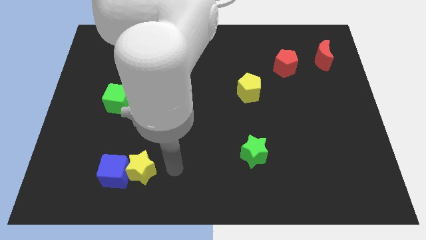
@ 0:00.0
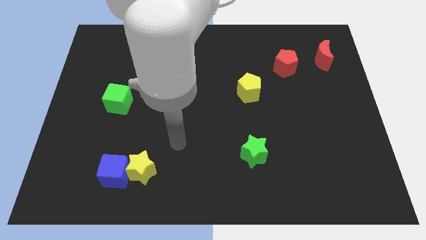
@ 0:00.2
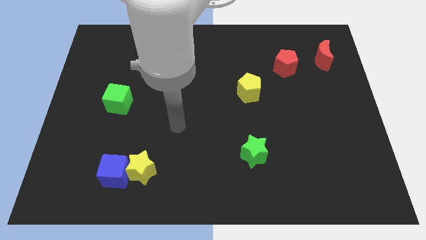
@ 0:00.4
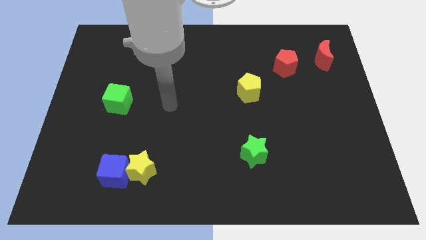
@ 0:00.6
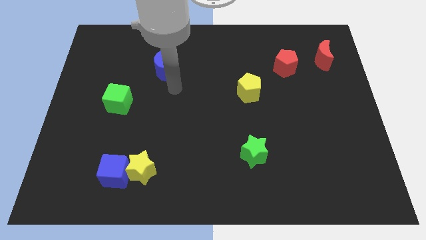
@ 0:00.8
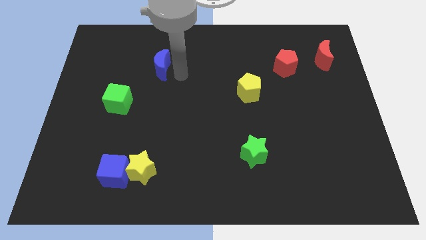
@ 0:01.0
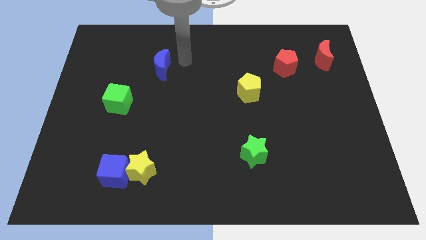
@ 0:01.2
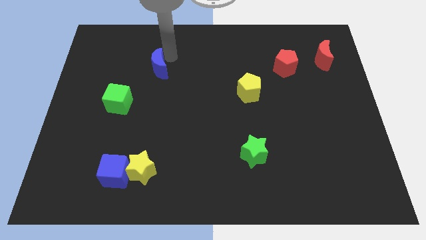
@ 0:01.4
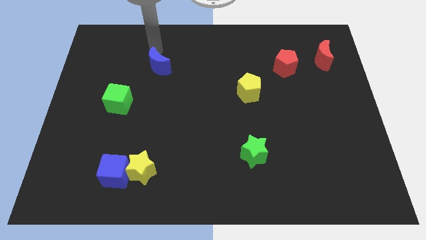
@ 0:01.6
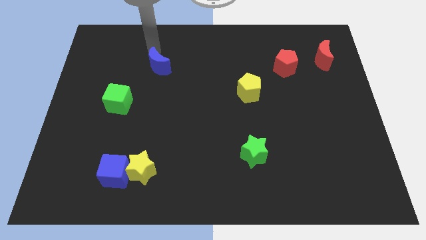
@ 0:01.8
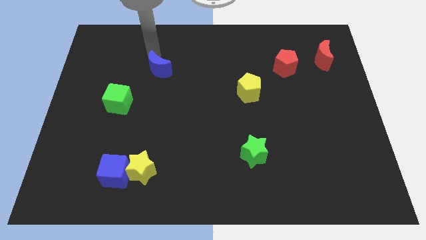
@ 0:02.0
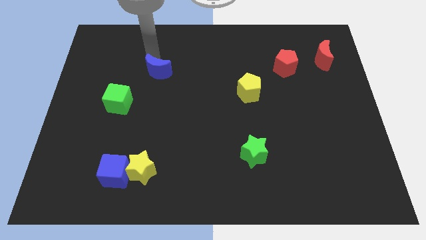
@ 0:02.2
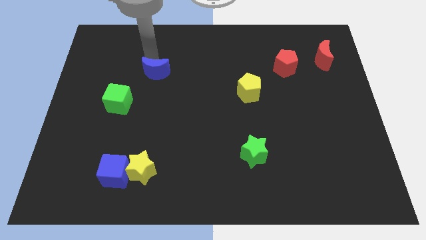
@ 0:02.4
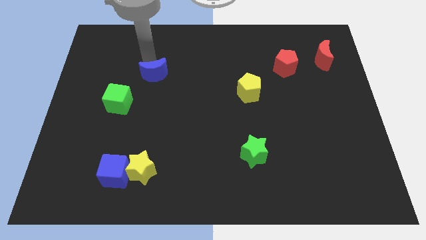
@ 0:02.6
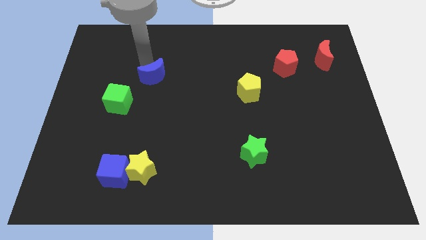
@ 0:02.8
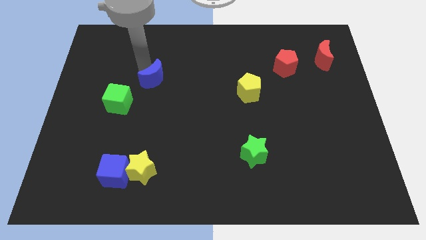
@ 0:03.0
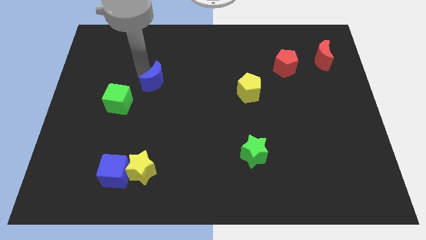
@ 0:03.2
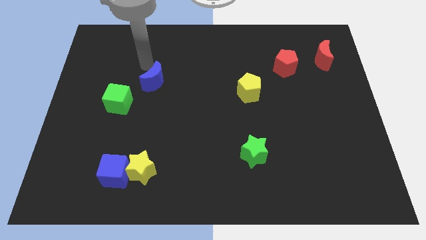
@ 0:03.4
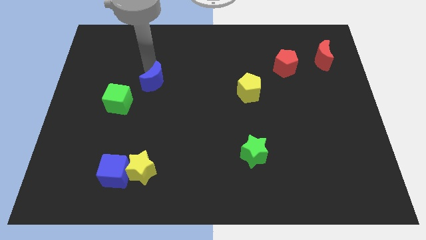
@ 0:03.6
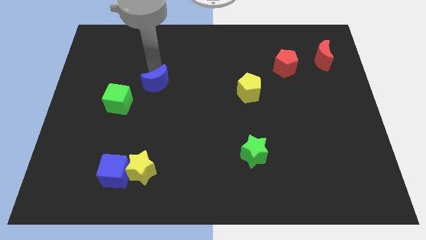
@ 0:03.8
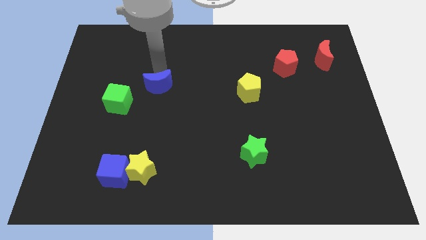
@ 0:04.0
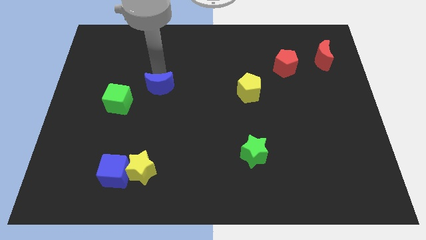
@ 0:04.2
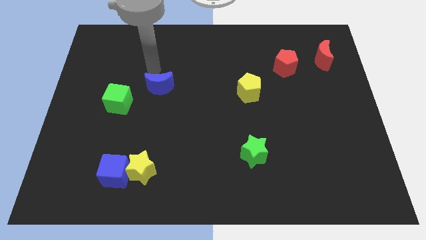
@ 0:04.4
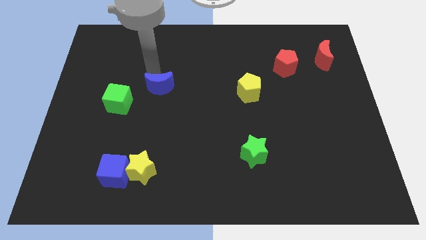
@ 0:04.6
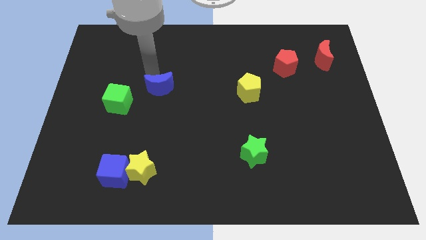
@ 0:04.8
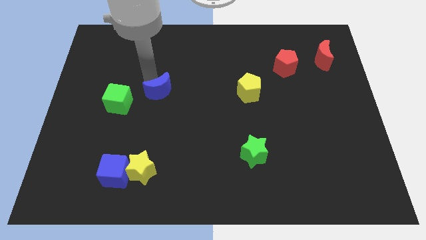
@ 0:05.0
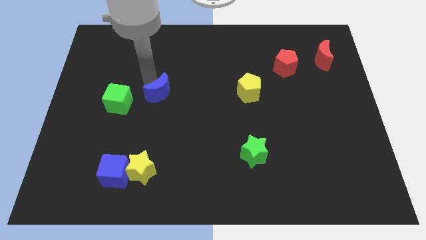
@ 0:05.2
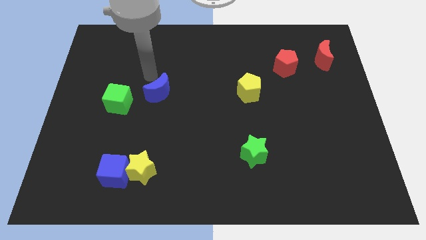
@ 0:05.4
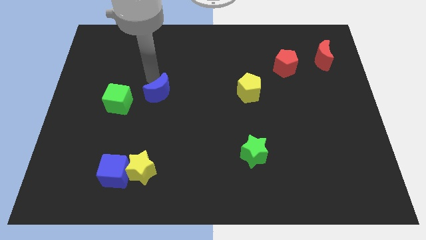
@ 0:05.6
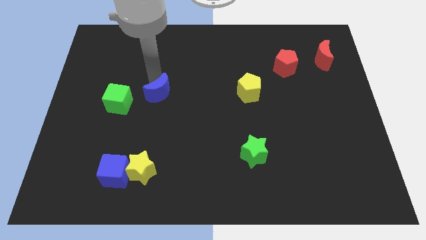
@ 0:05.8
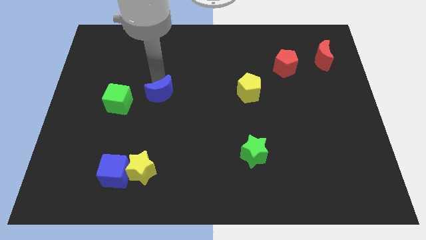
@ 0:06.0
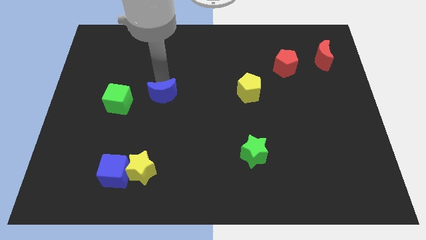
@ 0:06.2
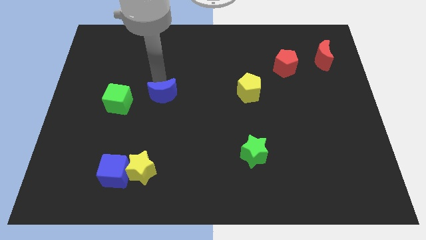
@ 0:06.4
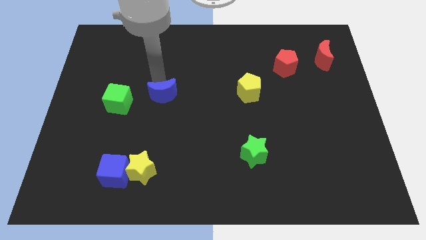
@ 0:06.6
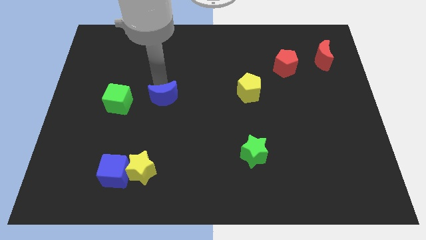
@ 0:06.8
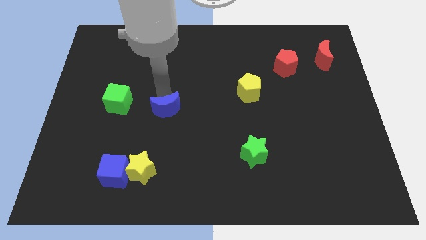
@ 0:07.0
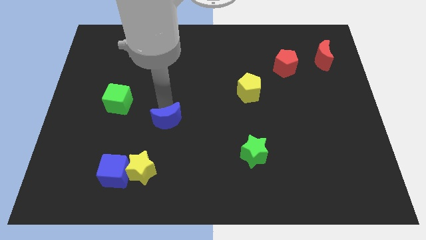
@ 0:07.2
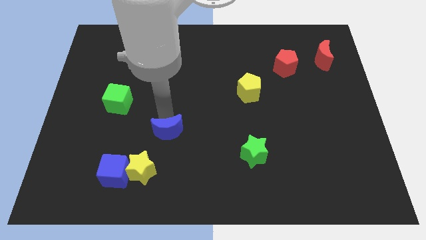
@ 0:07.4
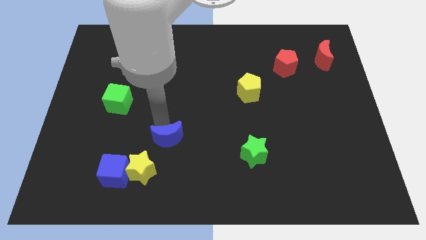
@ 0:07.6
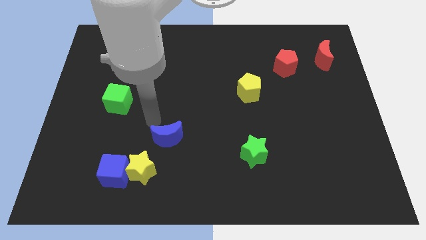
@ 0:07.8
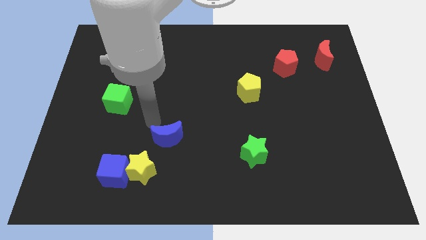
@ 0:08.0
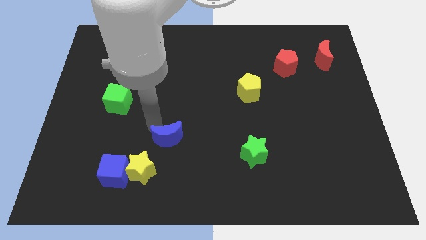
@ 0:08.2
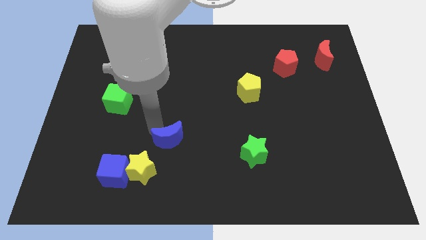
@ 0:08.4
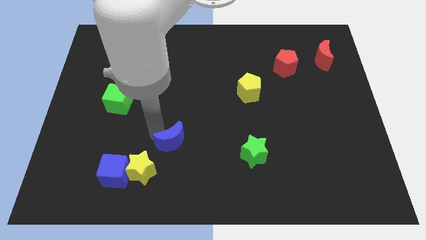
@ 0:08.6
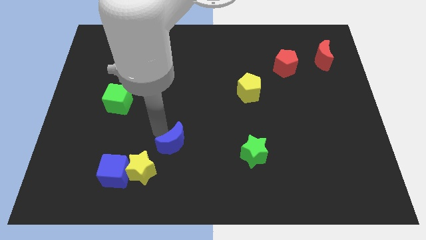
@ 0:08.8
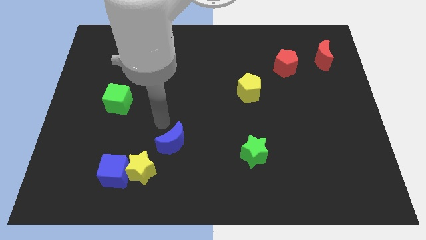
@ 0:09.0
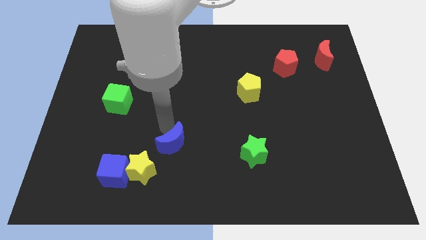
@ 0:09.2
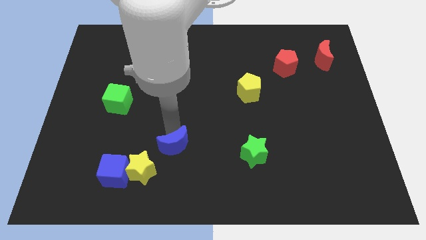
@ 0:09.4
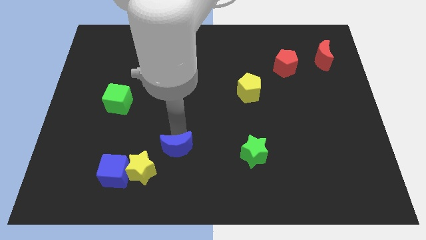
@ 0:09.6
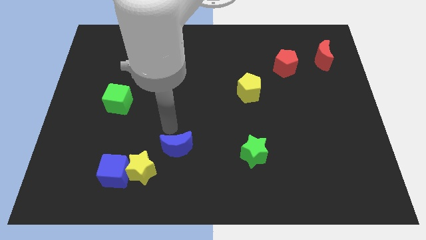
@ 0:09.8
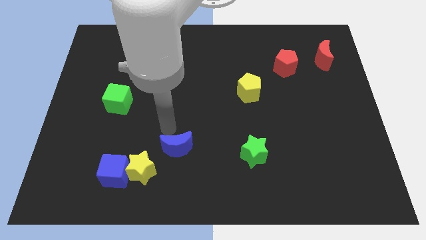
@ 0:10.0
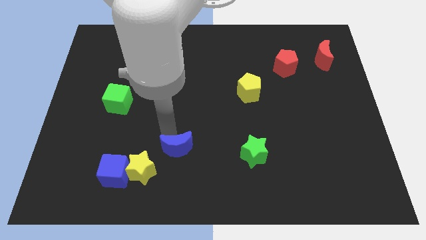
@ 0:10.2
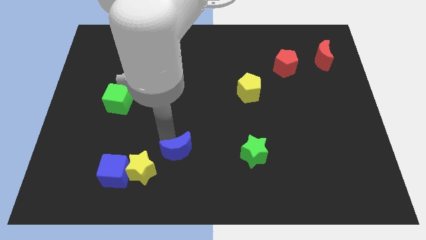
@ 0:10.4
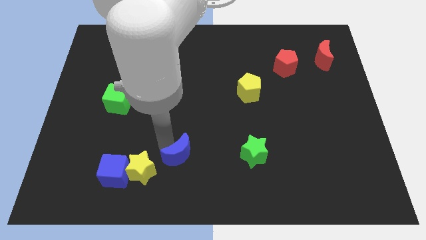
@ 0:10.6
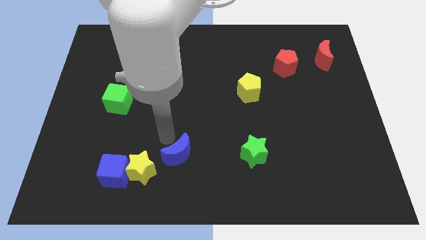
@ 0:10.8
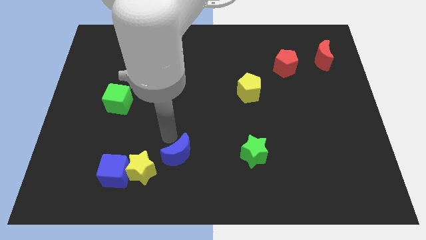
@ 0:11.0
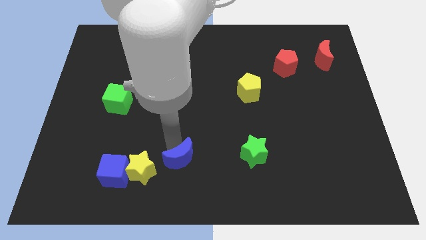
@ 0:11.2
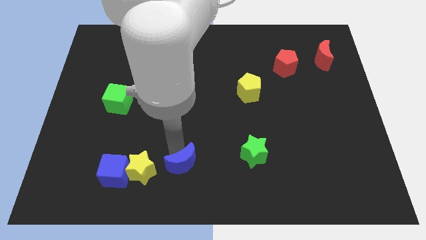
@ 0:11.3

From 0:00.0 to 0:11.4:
put the blue moon to the bottom side

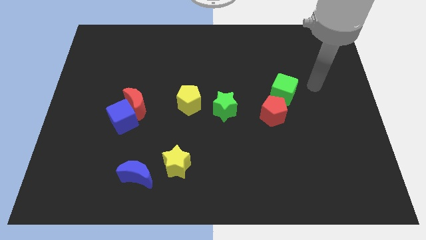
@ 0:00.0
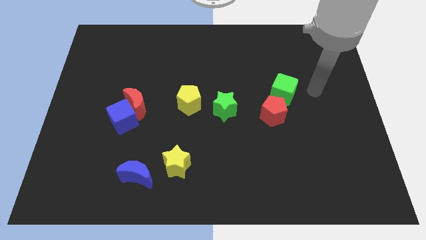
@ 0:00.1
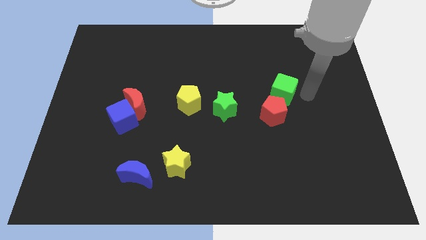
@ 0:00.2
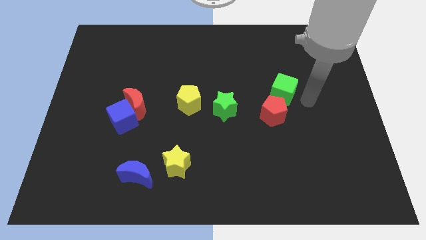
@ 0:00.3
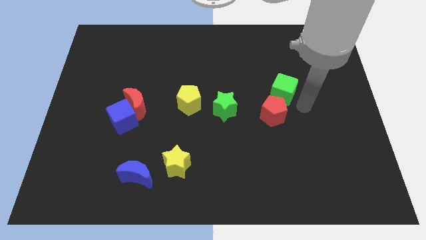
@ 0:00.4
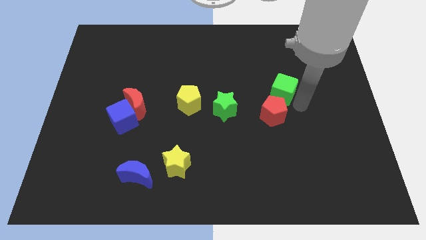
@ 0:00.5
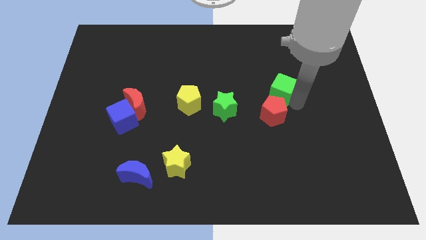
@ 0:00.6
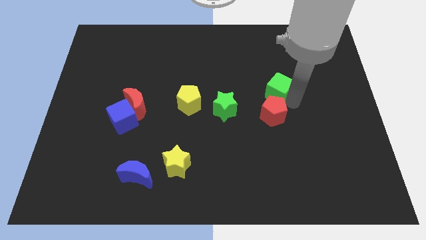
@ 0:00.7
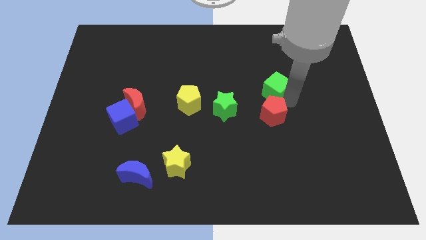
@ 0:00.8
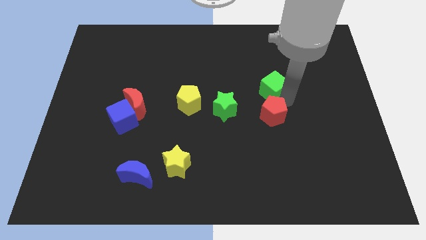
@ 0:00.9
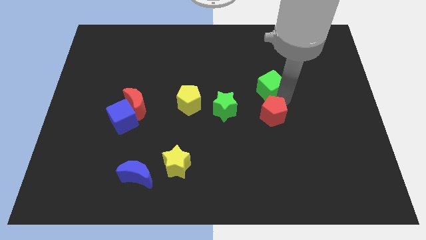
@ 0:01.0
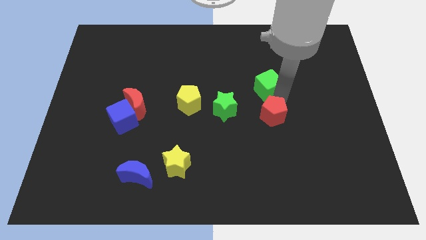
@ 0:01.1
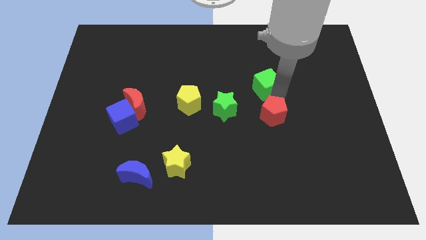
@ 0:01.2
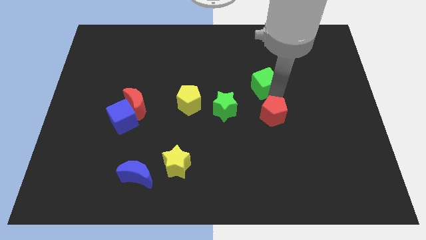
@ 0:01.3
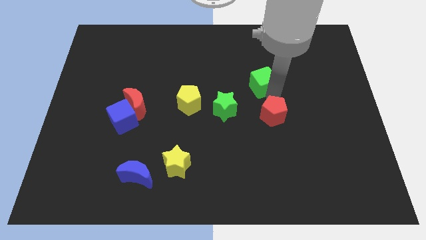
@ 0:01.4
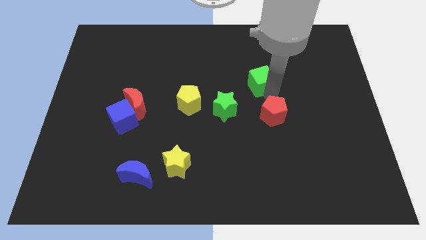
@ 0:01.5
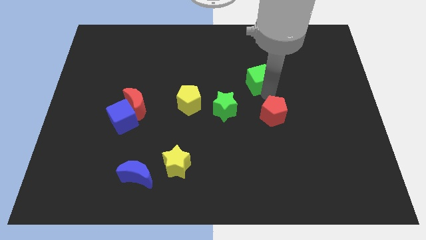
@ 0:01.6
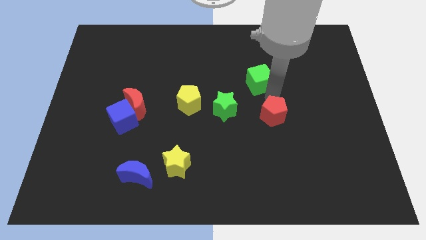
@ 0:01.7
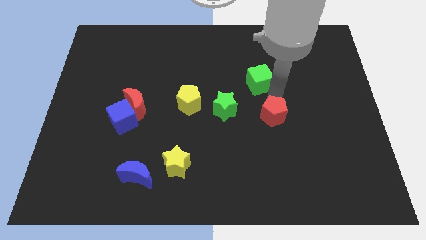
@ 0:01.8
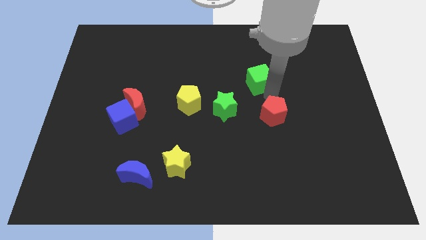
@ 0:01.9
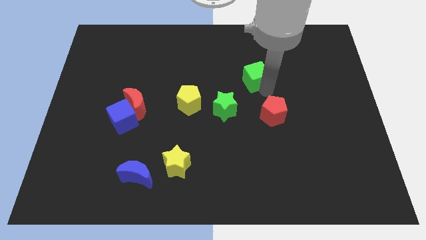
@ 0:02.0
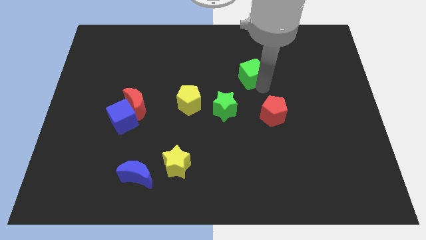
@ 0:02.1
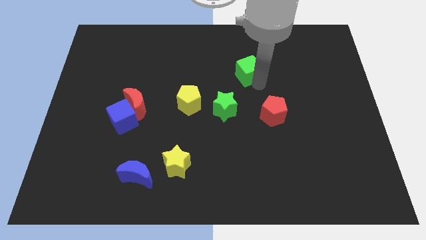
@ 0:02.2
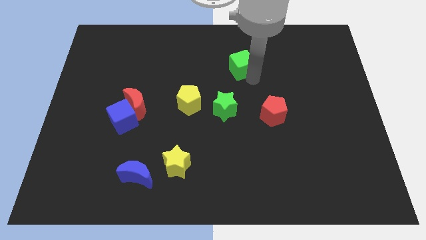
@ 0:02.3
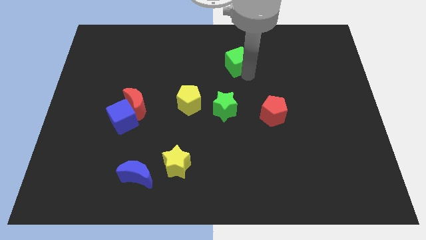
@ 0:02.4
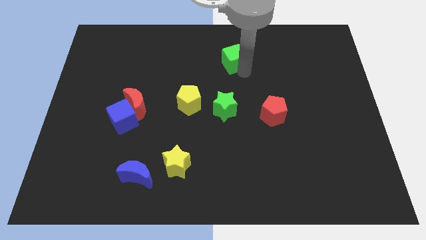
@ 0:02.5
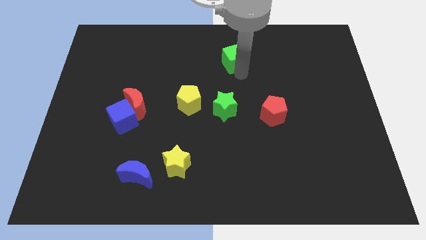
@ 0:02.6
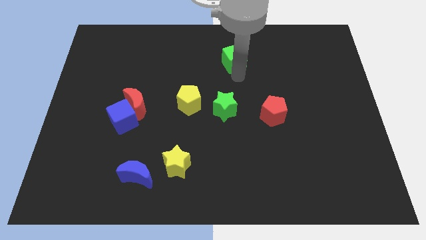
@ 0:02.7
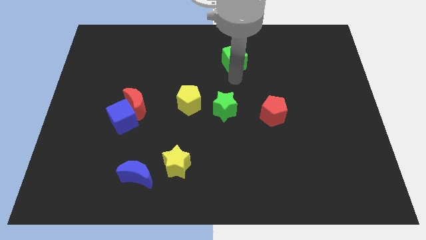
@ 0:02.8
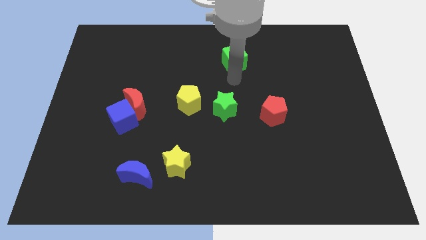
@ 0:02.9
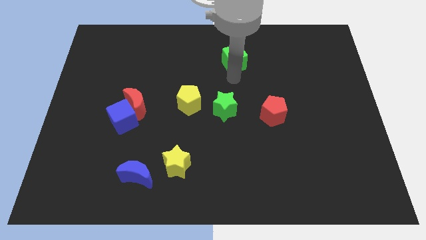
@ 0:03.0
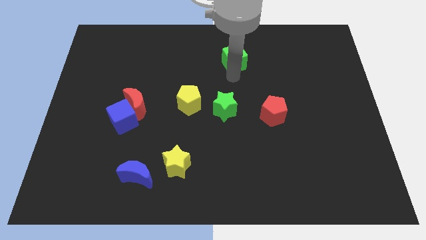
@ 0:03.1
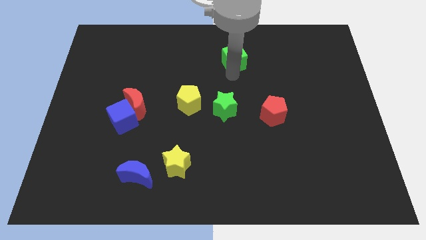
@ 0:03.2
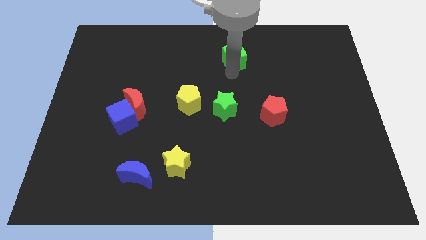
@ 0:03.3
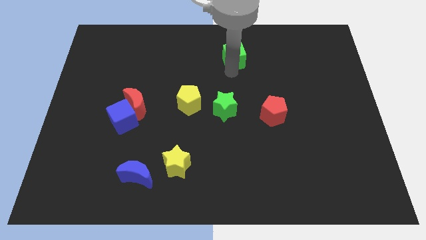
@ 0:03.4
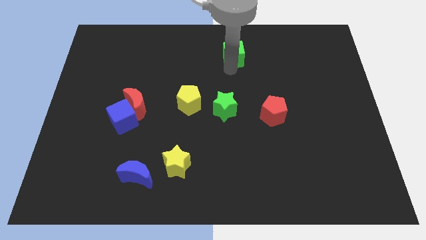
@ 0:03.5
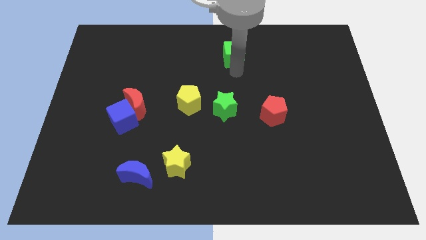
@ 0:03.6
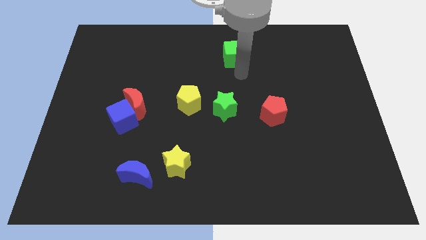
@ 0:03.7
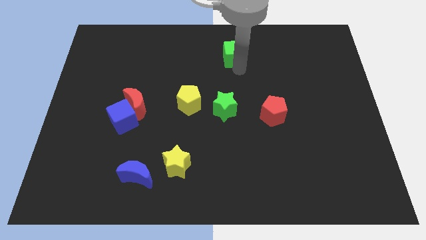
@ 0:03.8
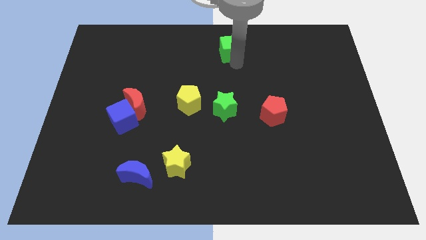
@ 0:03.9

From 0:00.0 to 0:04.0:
put the green cube to the top side
